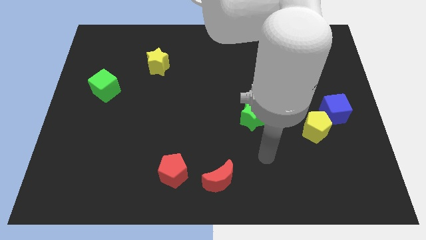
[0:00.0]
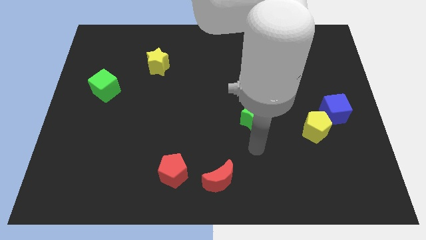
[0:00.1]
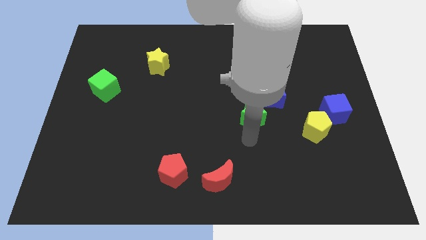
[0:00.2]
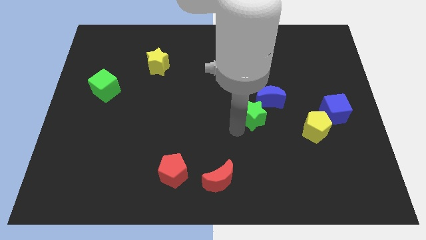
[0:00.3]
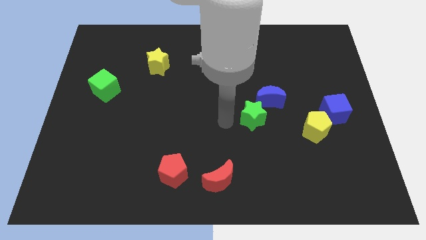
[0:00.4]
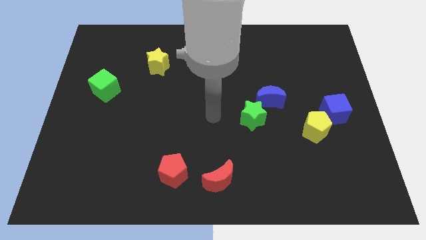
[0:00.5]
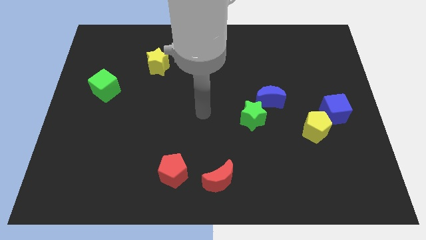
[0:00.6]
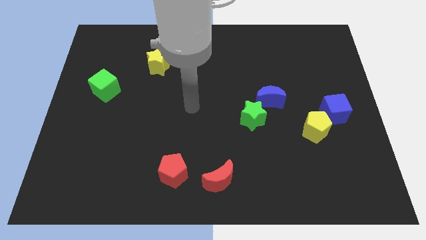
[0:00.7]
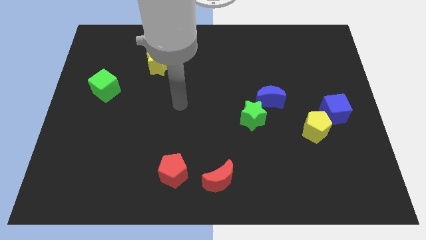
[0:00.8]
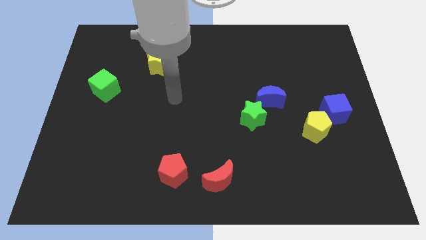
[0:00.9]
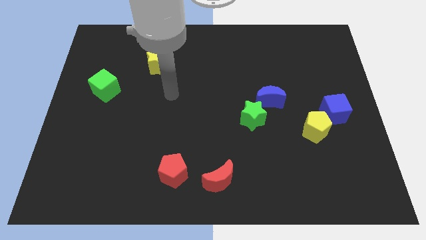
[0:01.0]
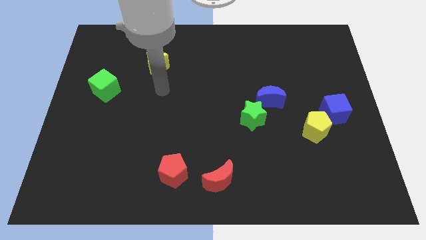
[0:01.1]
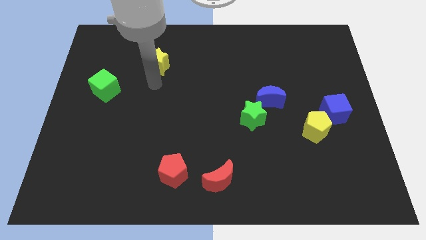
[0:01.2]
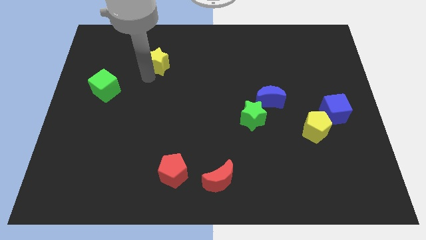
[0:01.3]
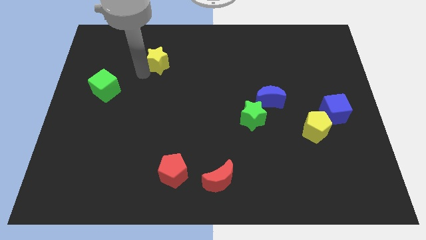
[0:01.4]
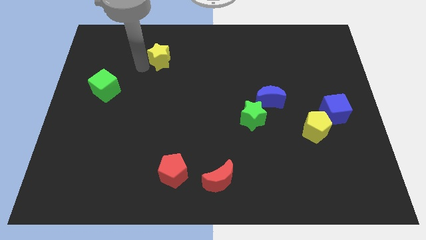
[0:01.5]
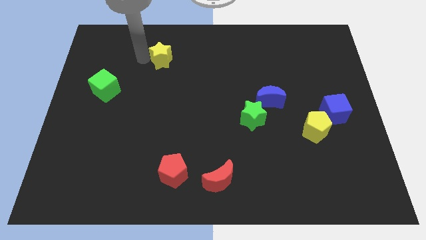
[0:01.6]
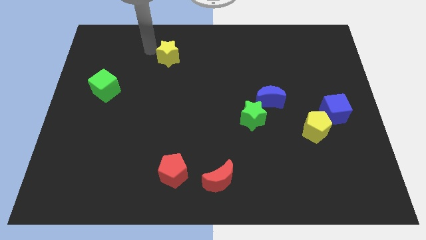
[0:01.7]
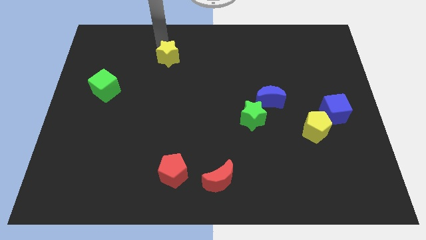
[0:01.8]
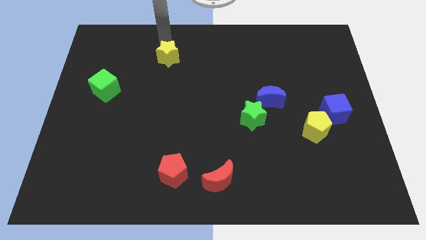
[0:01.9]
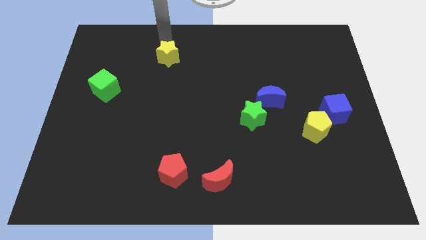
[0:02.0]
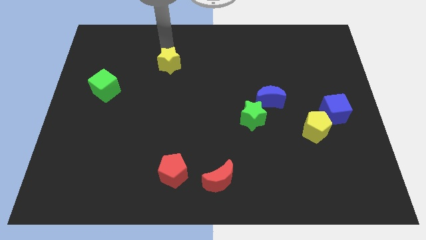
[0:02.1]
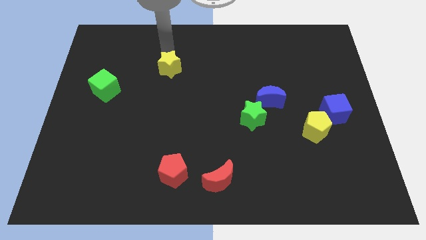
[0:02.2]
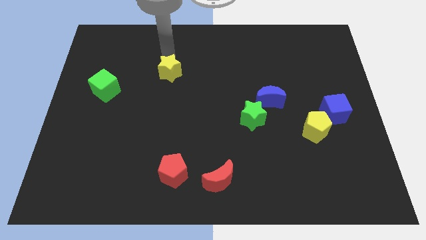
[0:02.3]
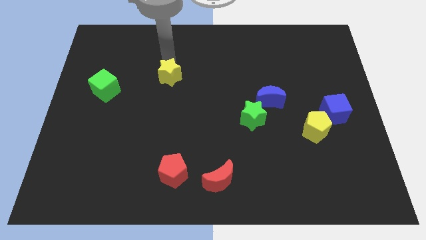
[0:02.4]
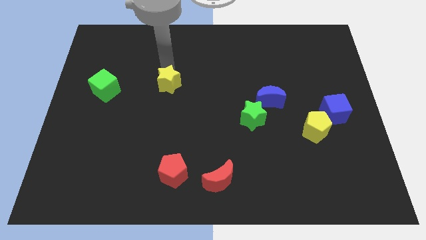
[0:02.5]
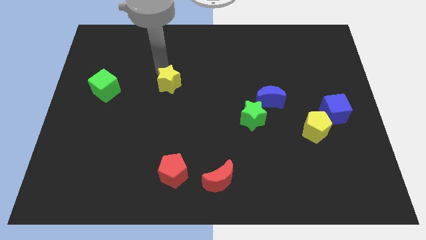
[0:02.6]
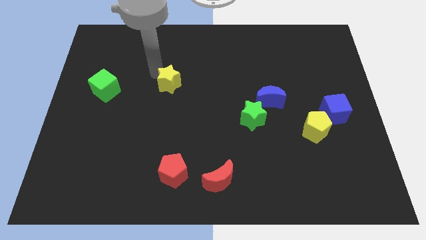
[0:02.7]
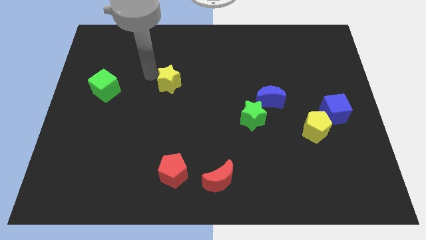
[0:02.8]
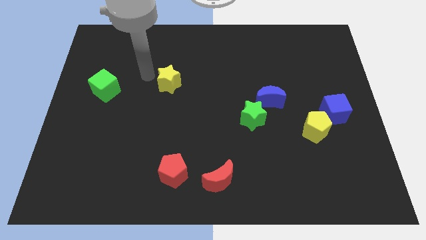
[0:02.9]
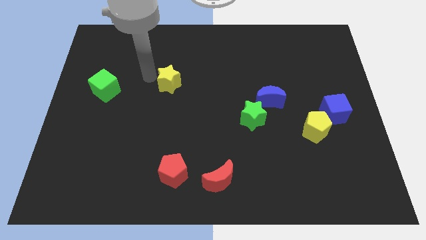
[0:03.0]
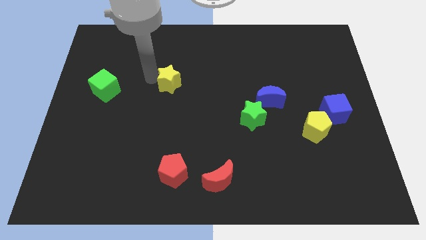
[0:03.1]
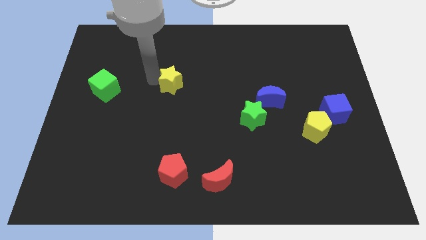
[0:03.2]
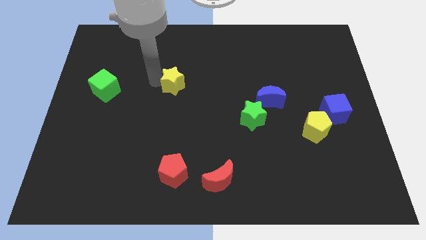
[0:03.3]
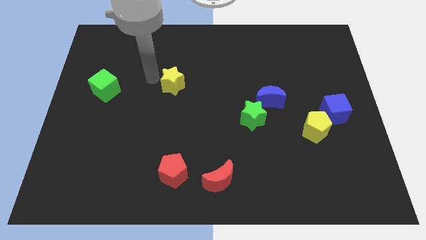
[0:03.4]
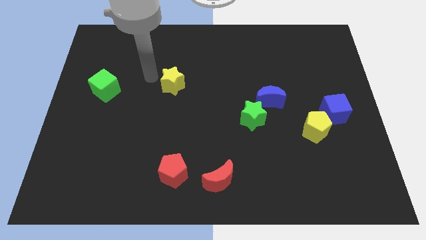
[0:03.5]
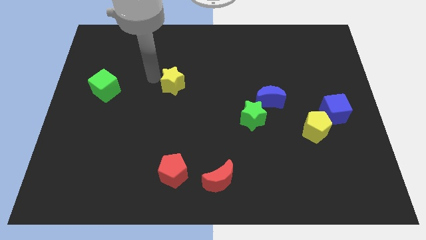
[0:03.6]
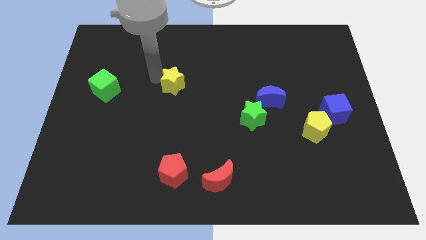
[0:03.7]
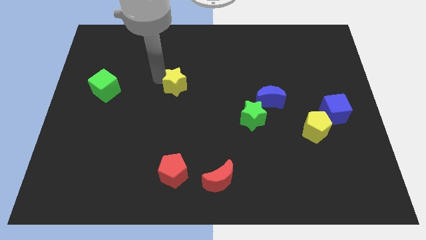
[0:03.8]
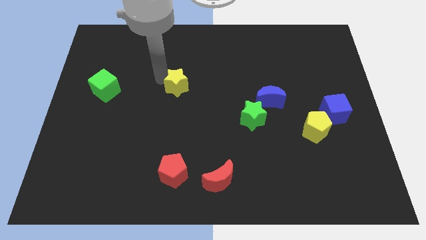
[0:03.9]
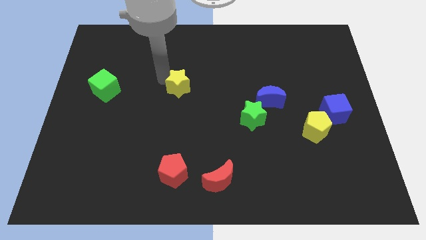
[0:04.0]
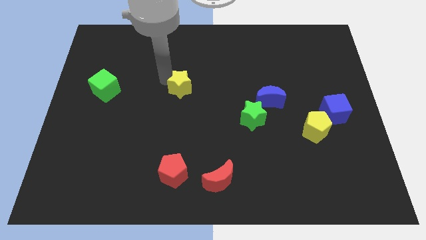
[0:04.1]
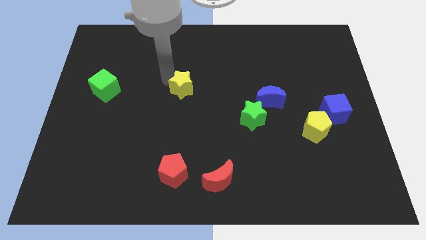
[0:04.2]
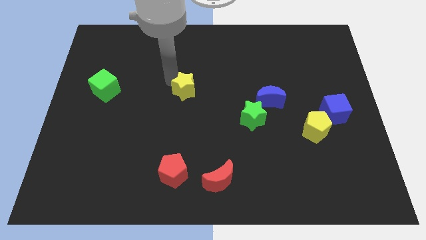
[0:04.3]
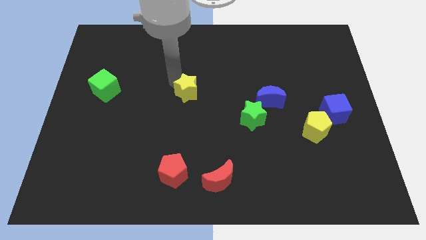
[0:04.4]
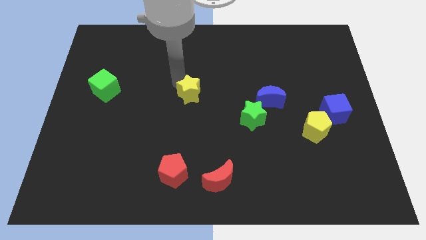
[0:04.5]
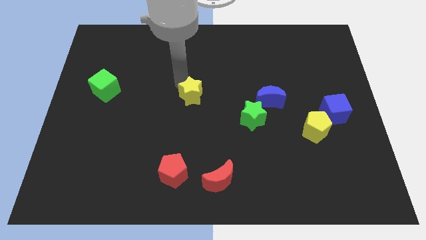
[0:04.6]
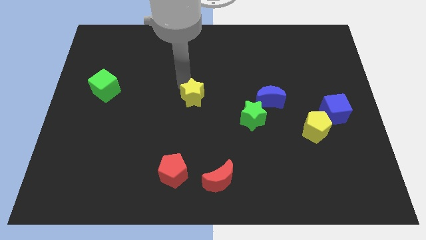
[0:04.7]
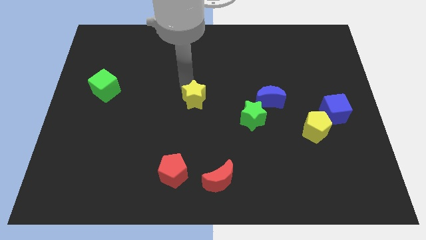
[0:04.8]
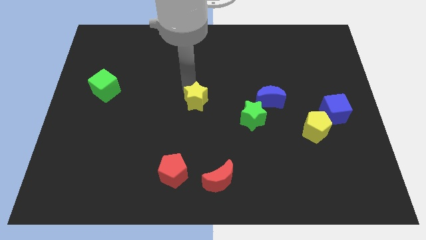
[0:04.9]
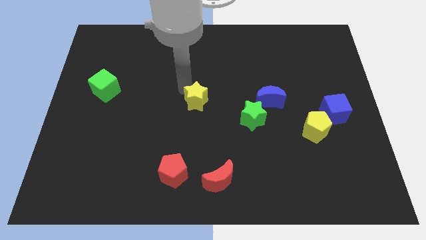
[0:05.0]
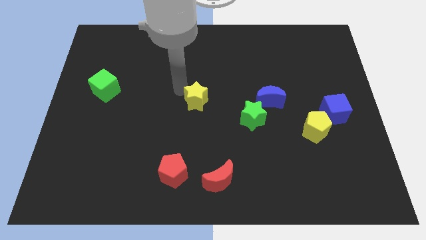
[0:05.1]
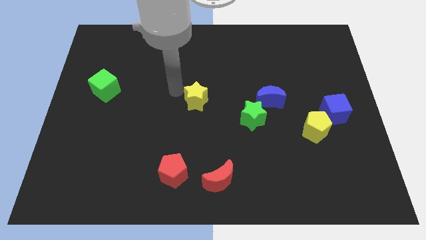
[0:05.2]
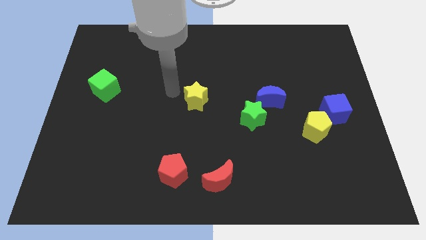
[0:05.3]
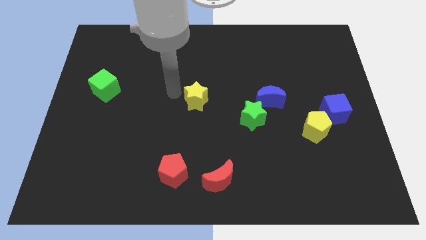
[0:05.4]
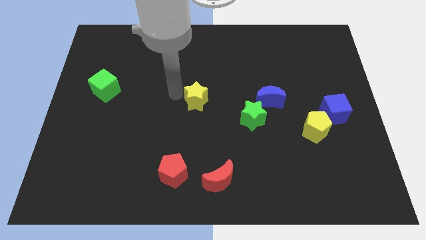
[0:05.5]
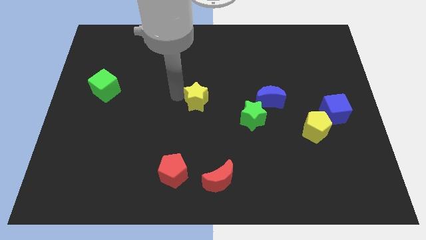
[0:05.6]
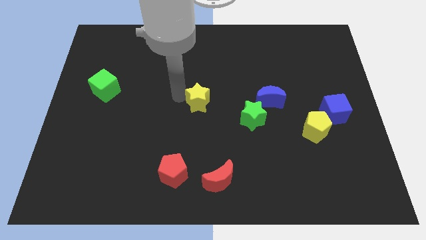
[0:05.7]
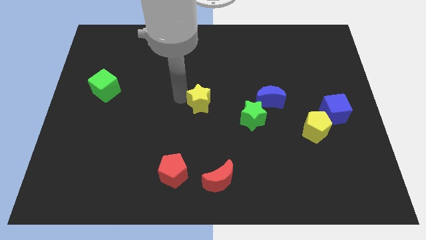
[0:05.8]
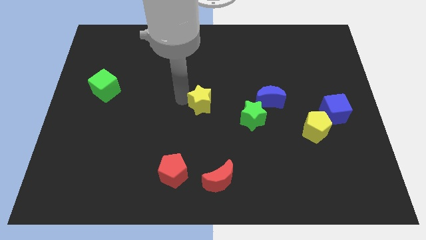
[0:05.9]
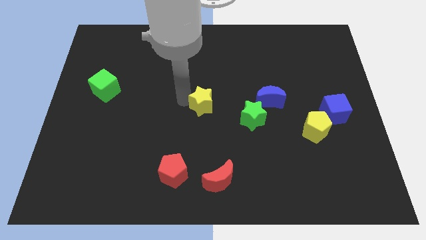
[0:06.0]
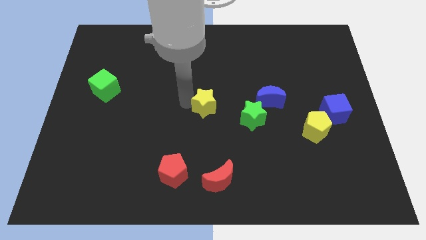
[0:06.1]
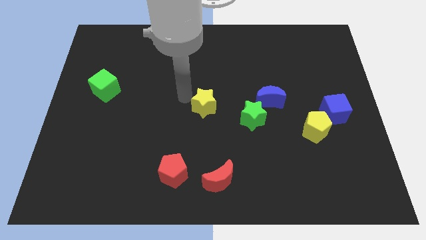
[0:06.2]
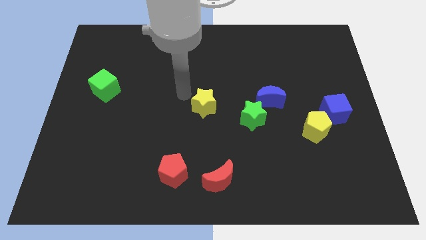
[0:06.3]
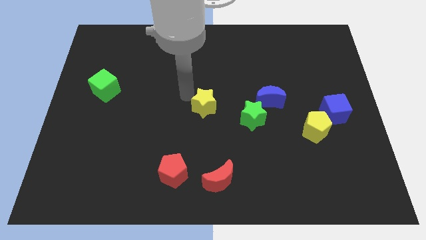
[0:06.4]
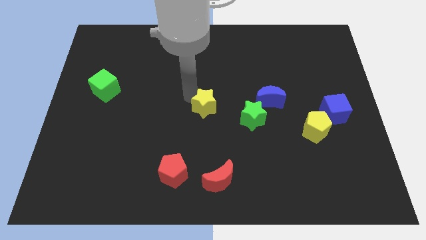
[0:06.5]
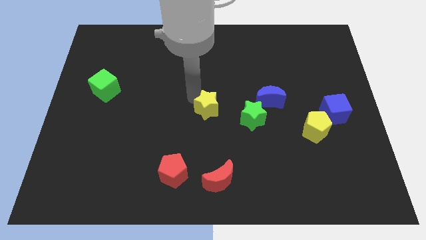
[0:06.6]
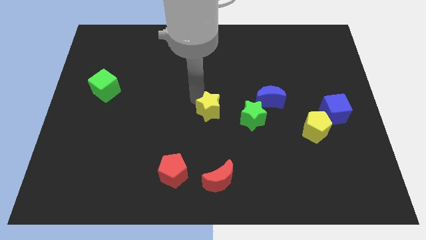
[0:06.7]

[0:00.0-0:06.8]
move the yellow star diagonally down and right

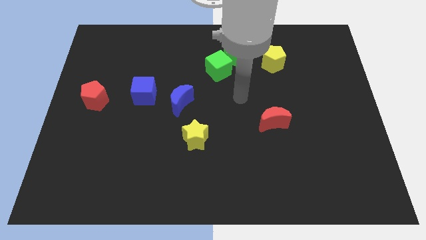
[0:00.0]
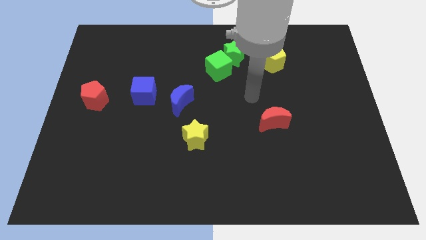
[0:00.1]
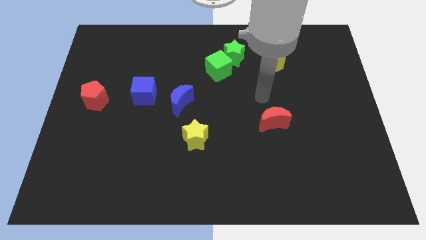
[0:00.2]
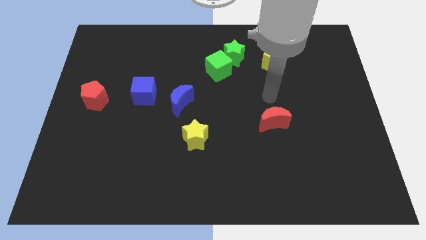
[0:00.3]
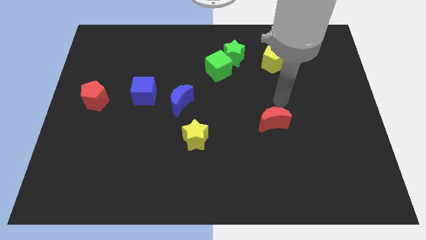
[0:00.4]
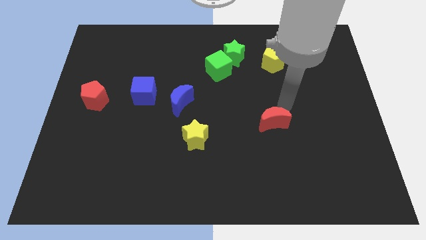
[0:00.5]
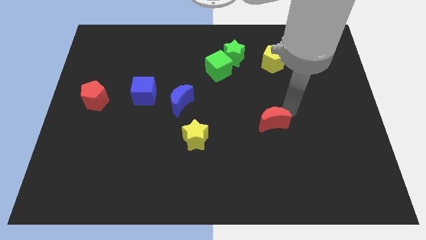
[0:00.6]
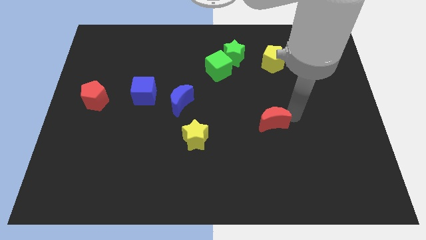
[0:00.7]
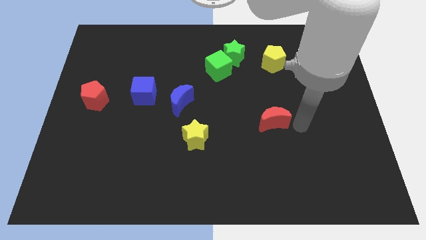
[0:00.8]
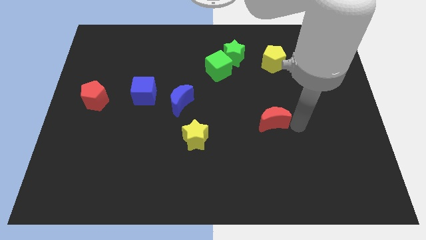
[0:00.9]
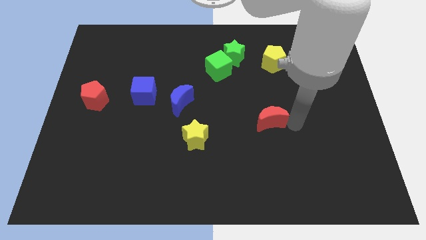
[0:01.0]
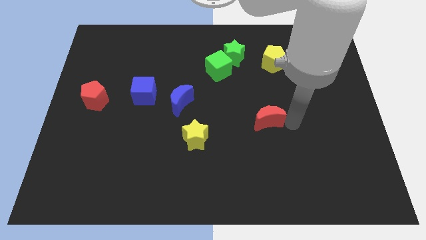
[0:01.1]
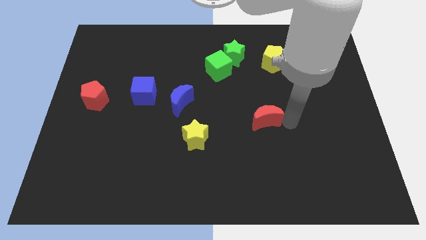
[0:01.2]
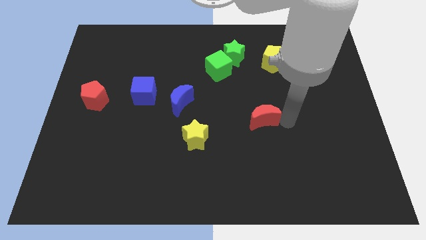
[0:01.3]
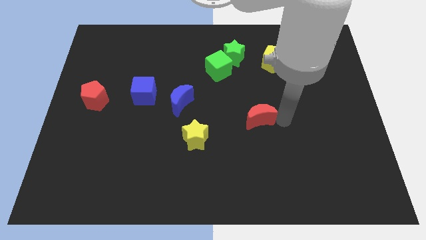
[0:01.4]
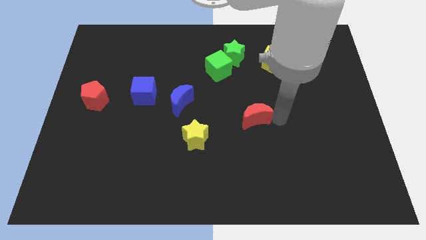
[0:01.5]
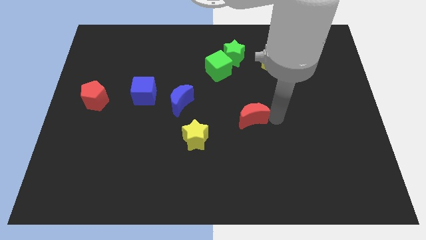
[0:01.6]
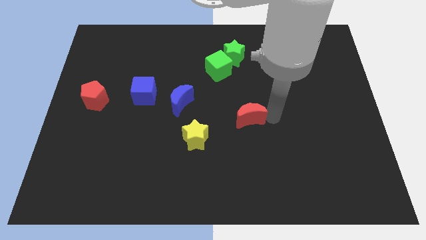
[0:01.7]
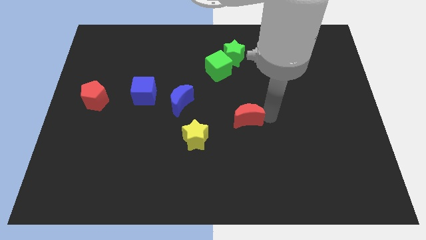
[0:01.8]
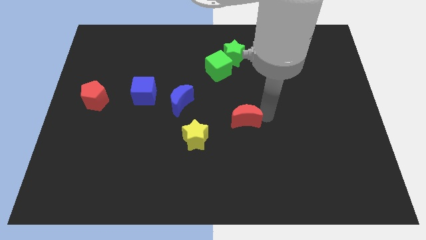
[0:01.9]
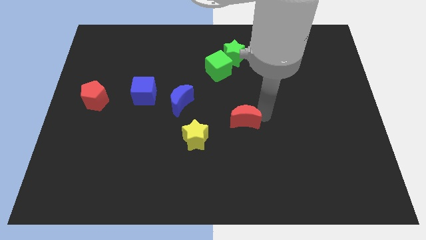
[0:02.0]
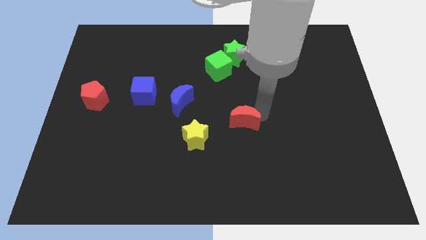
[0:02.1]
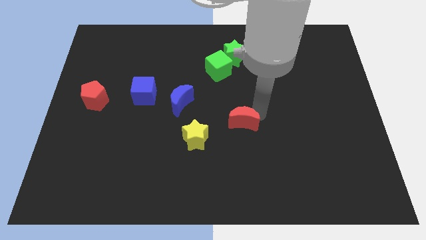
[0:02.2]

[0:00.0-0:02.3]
slightly slide the red moon left
